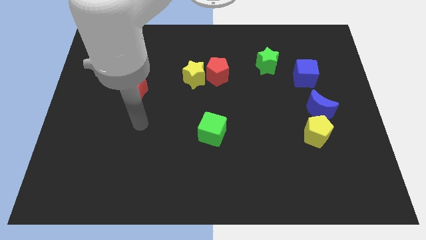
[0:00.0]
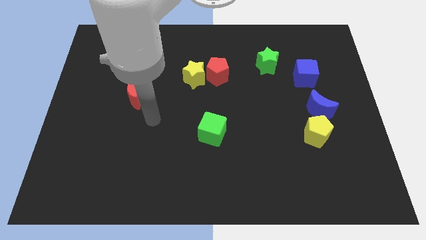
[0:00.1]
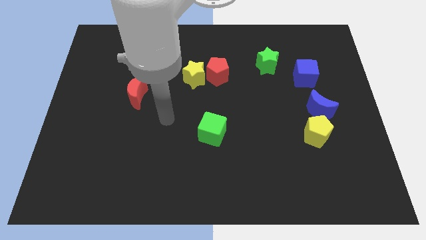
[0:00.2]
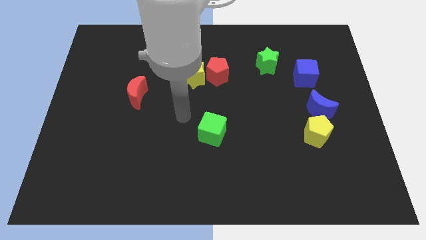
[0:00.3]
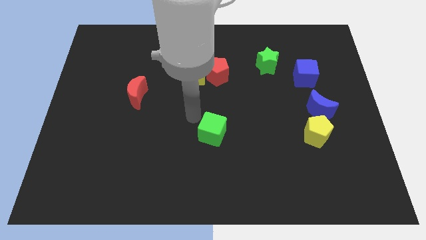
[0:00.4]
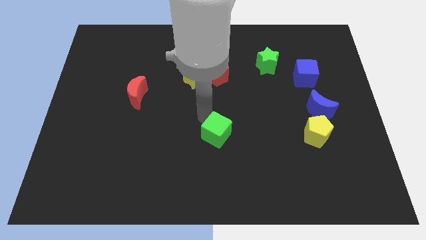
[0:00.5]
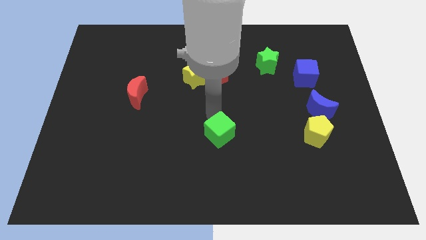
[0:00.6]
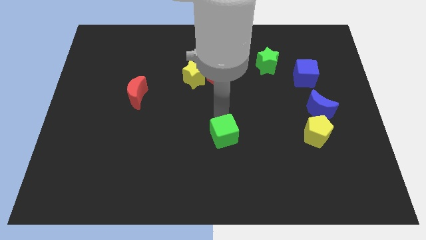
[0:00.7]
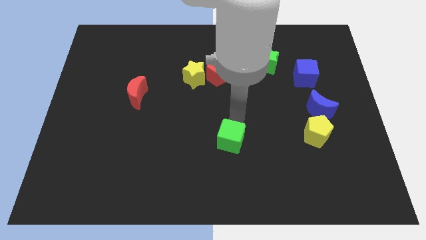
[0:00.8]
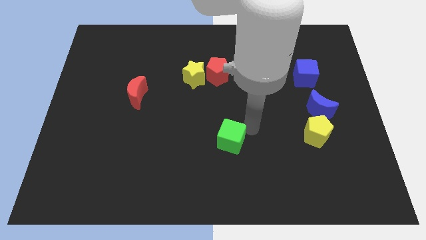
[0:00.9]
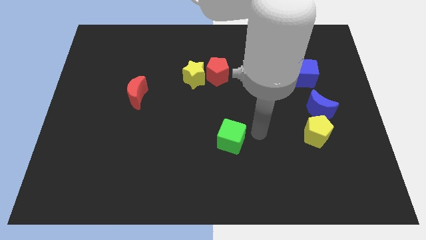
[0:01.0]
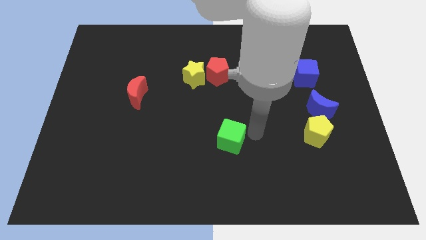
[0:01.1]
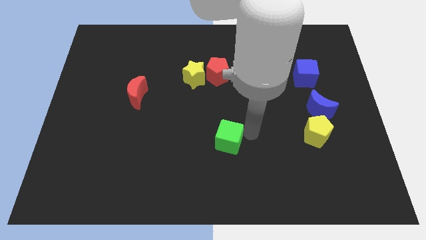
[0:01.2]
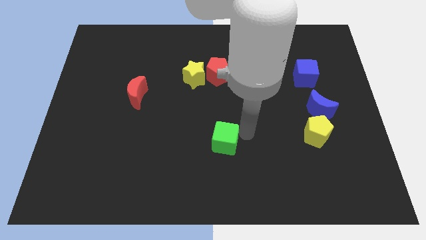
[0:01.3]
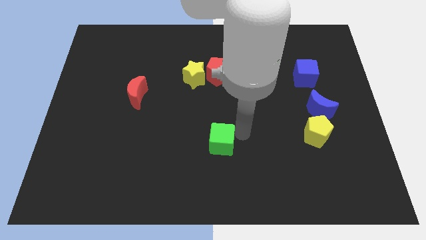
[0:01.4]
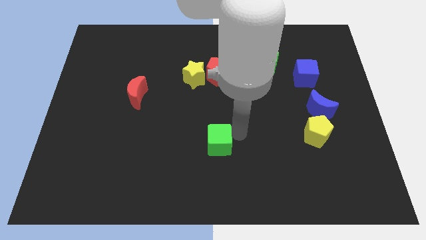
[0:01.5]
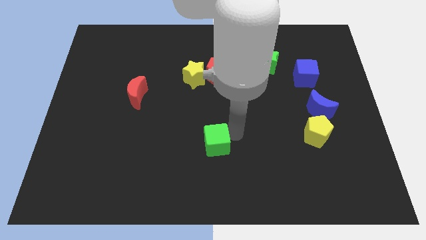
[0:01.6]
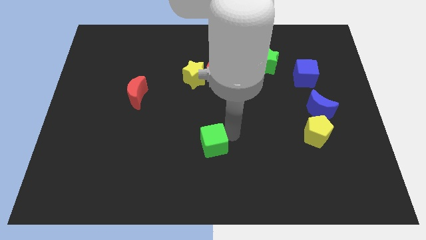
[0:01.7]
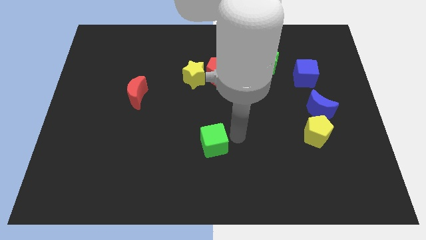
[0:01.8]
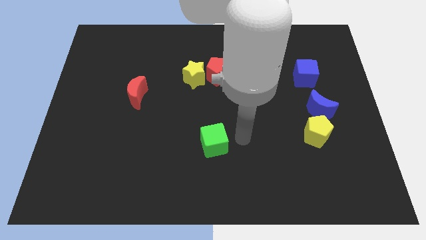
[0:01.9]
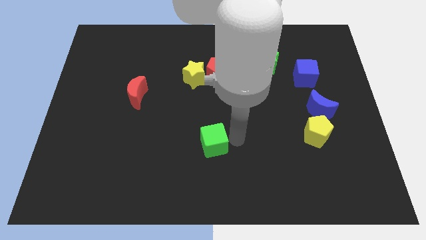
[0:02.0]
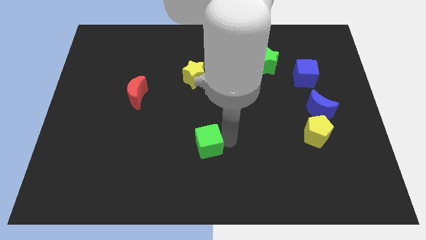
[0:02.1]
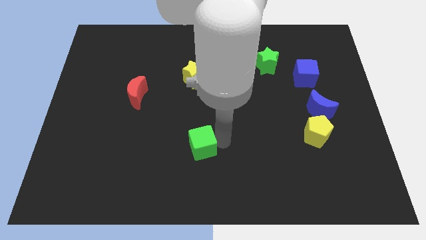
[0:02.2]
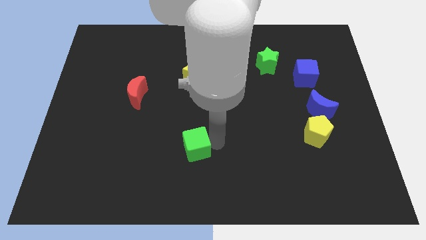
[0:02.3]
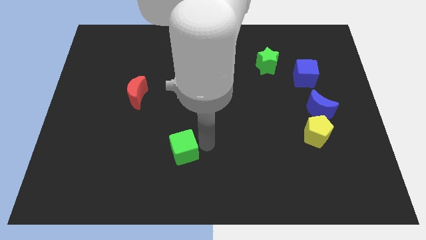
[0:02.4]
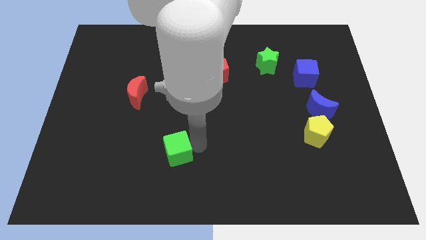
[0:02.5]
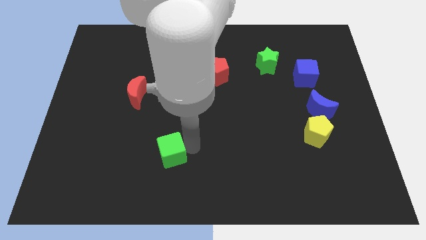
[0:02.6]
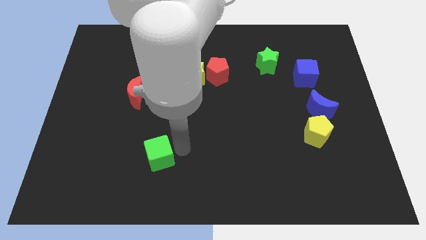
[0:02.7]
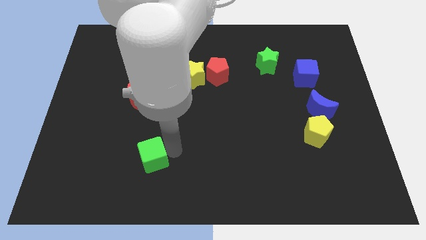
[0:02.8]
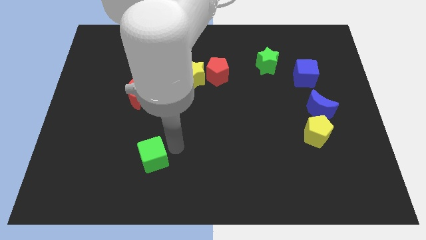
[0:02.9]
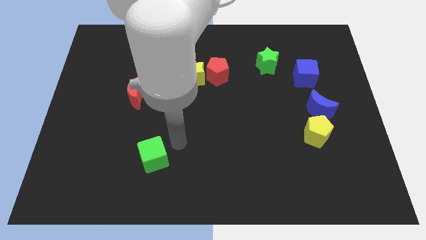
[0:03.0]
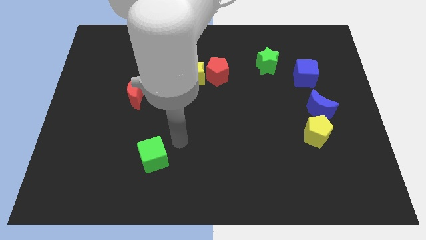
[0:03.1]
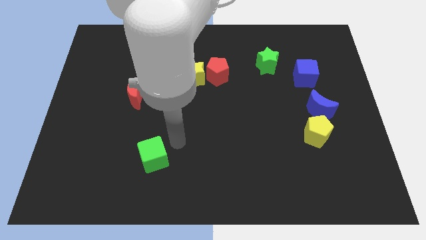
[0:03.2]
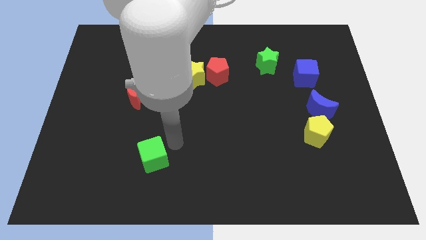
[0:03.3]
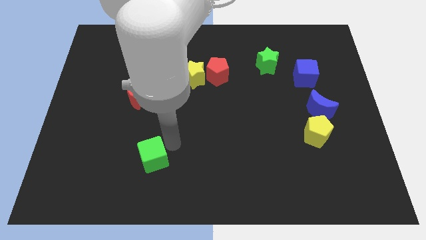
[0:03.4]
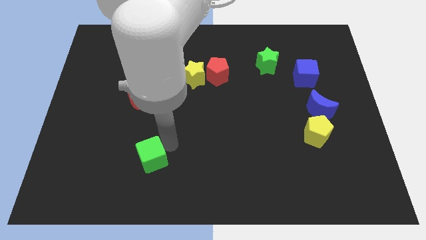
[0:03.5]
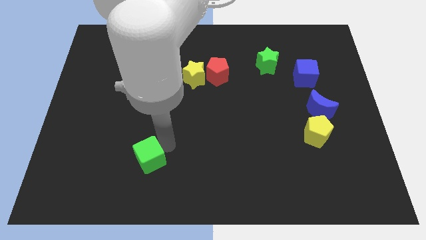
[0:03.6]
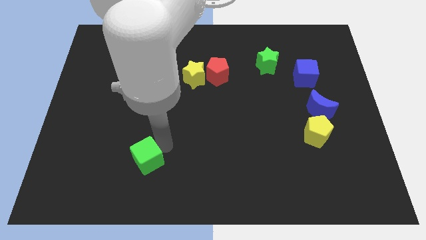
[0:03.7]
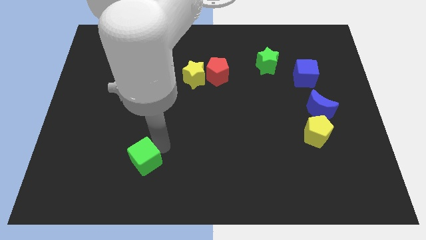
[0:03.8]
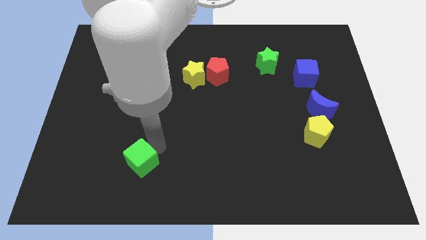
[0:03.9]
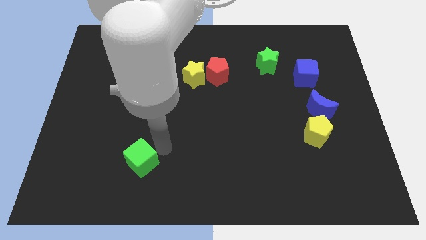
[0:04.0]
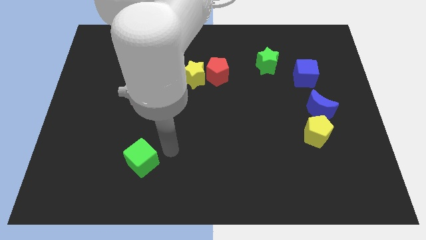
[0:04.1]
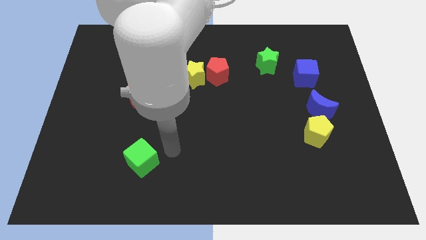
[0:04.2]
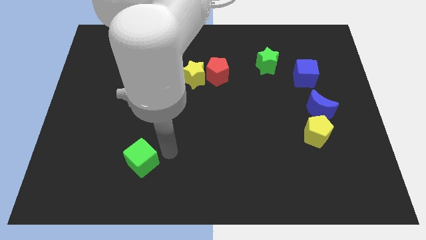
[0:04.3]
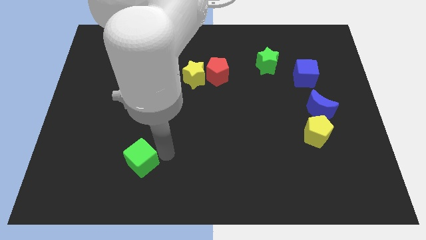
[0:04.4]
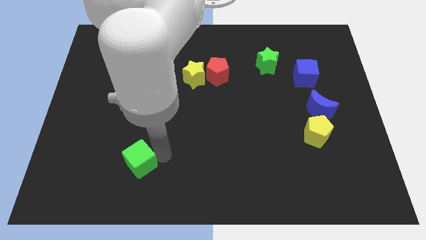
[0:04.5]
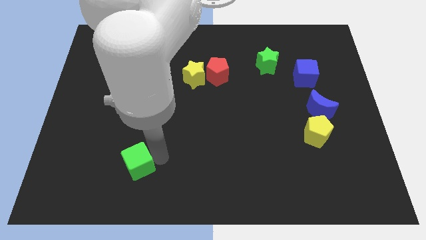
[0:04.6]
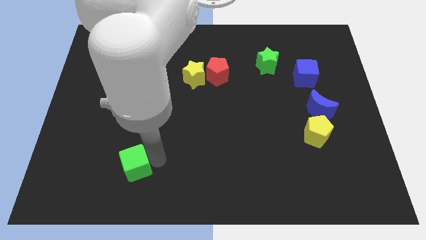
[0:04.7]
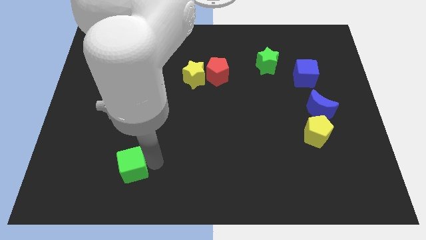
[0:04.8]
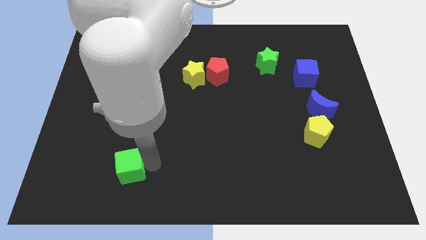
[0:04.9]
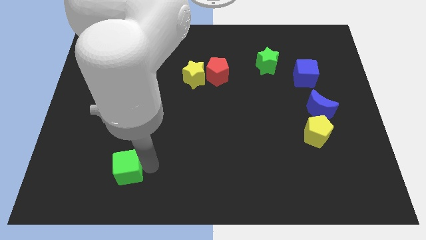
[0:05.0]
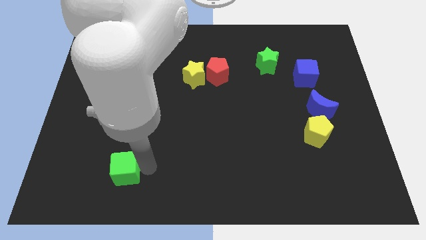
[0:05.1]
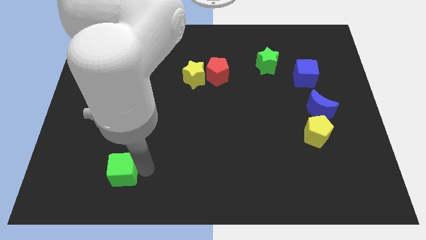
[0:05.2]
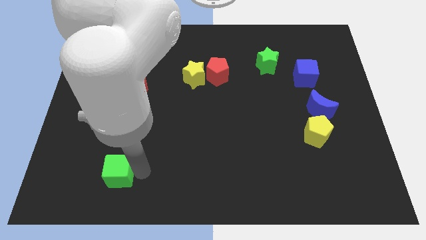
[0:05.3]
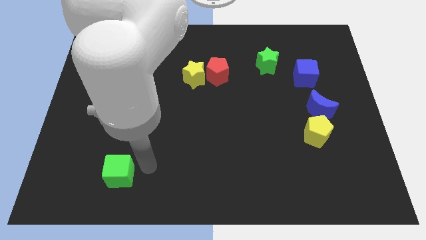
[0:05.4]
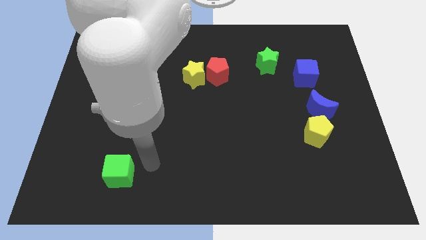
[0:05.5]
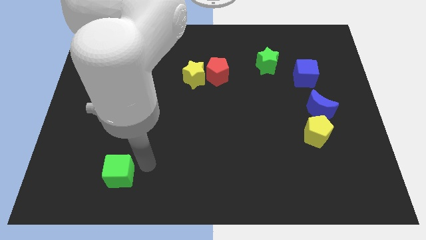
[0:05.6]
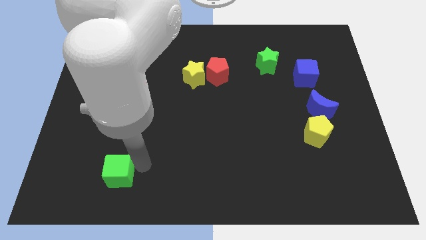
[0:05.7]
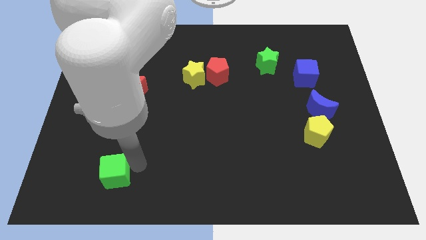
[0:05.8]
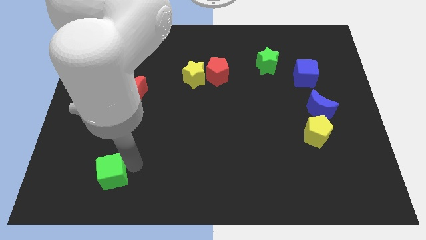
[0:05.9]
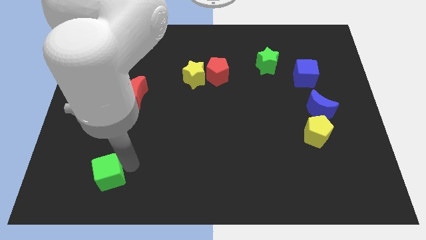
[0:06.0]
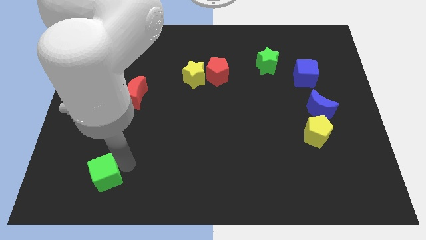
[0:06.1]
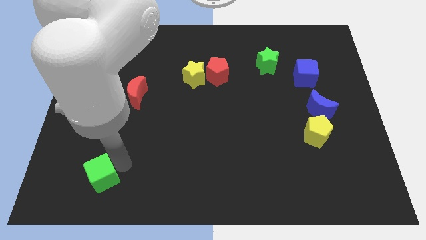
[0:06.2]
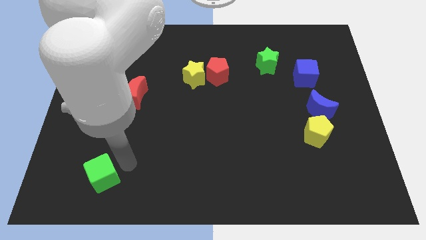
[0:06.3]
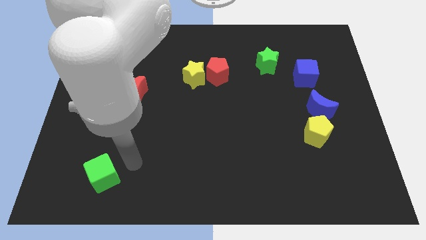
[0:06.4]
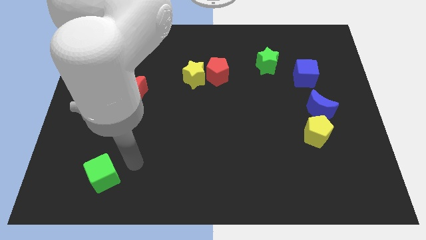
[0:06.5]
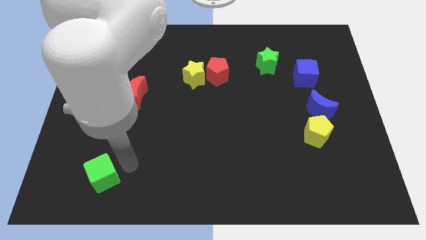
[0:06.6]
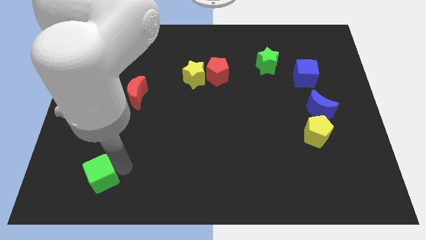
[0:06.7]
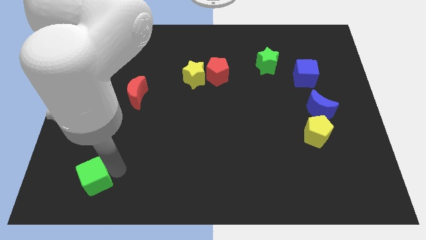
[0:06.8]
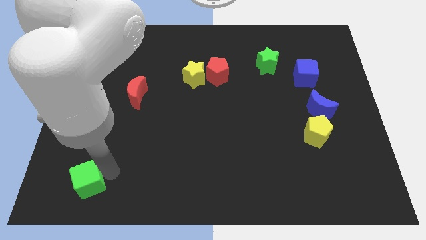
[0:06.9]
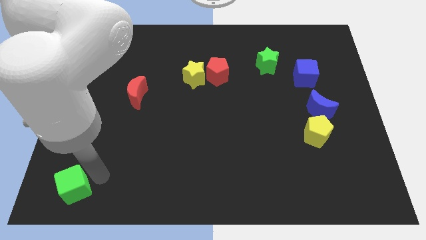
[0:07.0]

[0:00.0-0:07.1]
slide the green cube to the lower left corner
